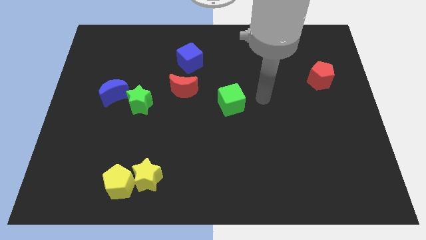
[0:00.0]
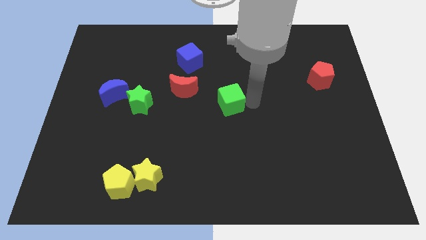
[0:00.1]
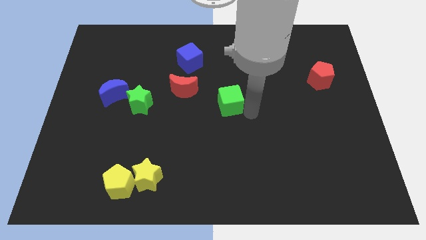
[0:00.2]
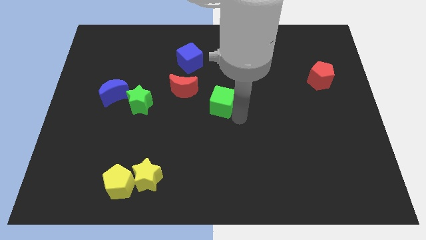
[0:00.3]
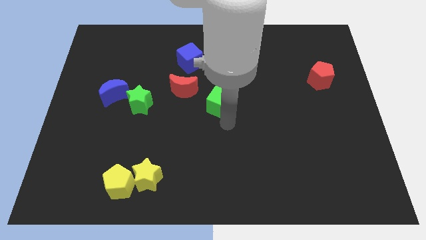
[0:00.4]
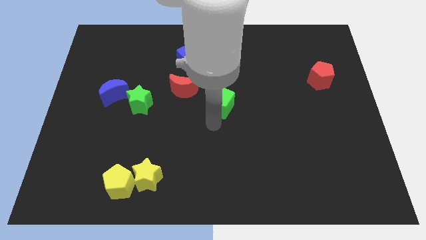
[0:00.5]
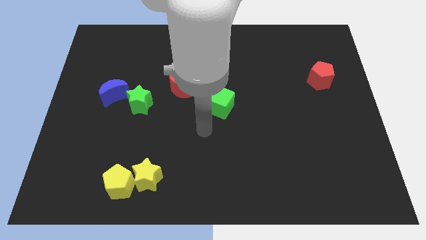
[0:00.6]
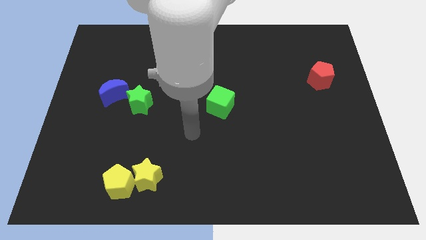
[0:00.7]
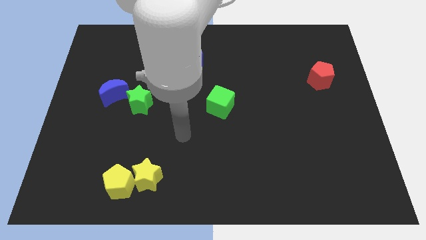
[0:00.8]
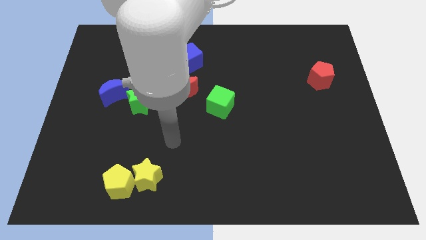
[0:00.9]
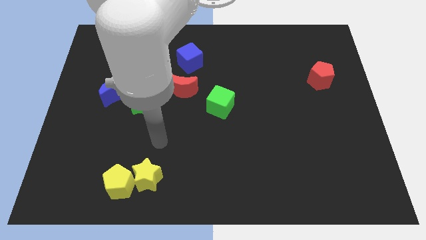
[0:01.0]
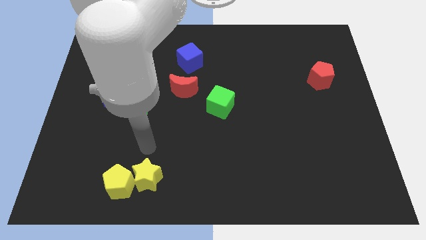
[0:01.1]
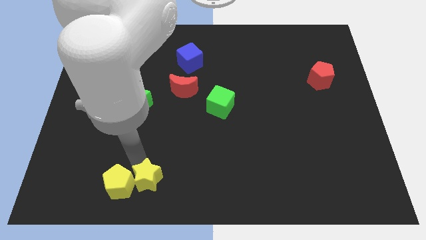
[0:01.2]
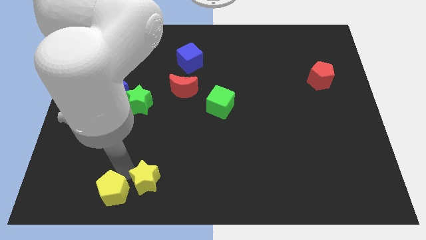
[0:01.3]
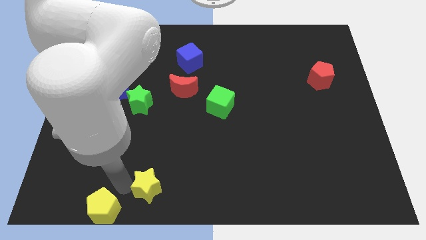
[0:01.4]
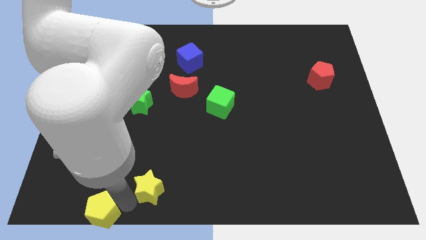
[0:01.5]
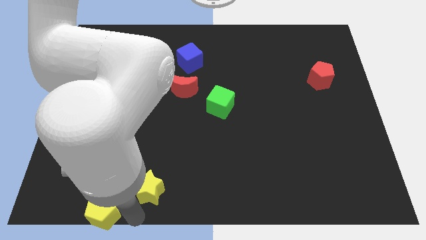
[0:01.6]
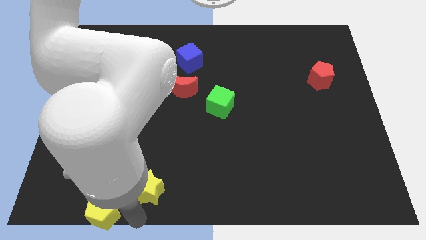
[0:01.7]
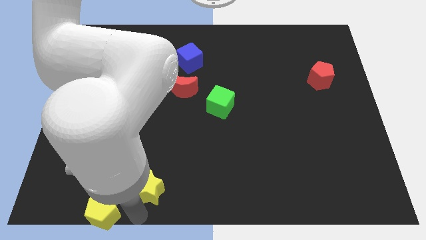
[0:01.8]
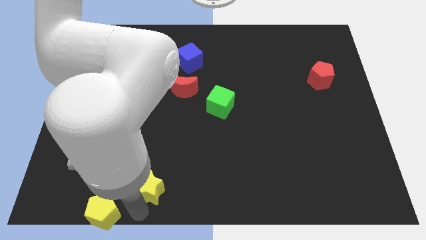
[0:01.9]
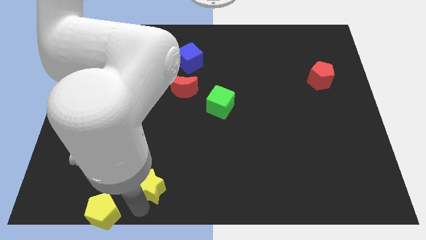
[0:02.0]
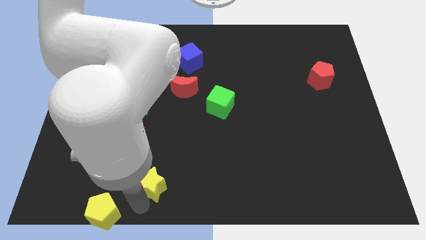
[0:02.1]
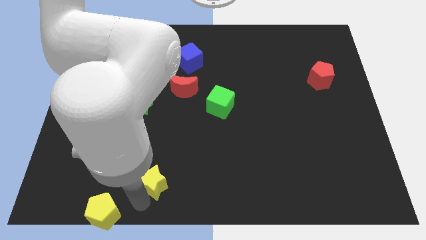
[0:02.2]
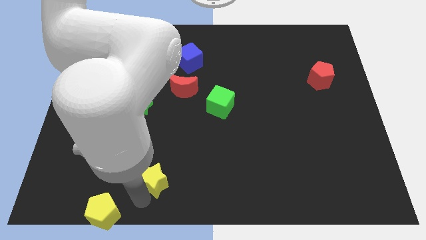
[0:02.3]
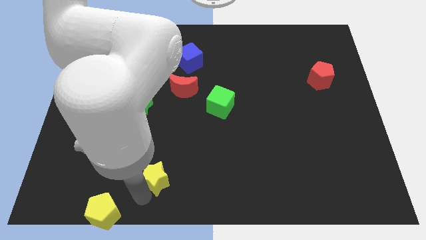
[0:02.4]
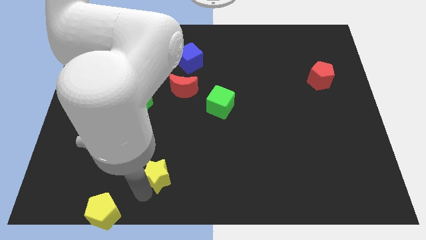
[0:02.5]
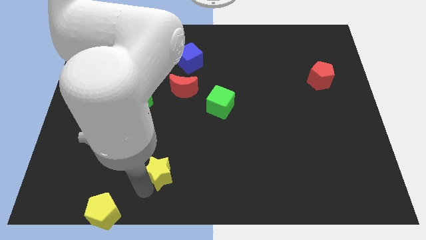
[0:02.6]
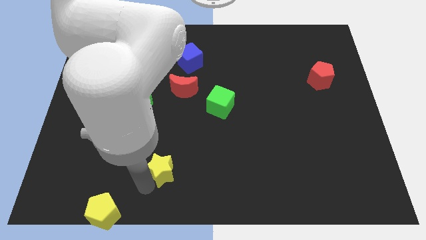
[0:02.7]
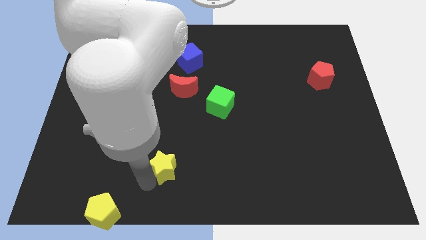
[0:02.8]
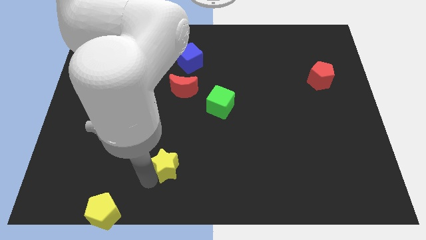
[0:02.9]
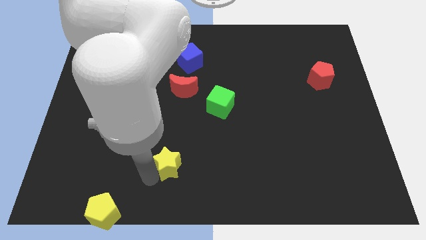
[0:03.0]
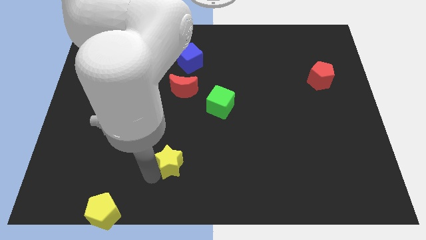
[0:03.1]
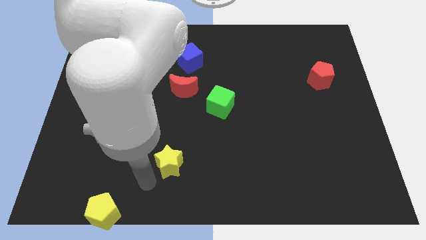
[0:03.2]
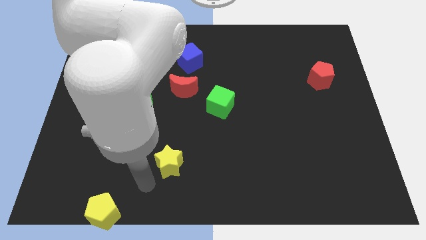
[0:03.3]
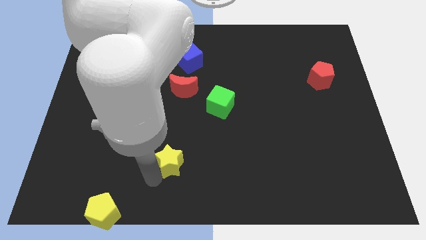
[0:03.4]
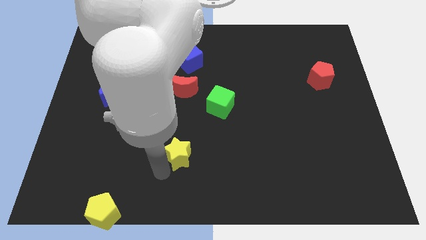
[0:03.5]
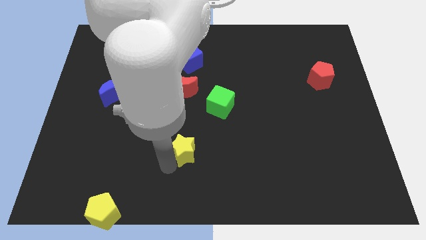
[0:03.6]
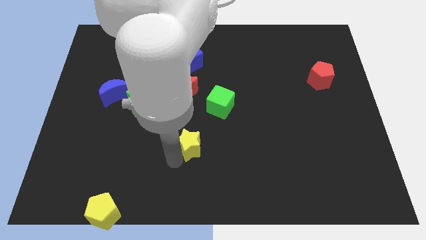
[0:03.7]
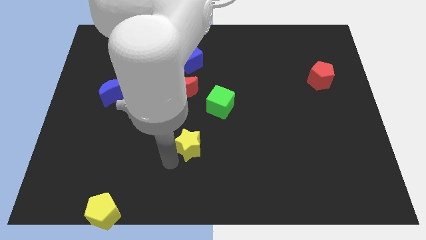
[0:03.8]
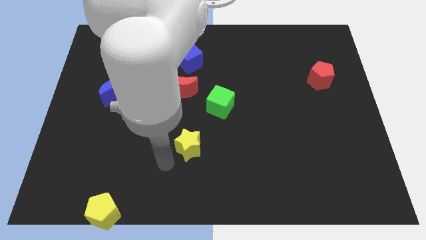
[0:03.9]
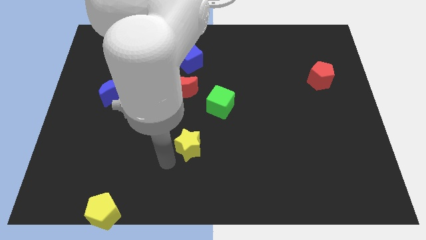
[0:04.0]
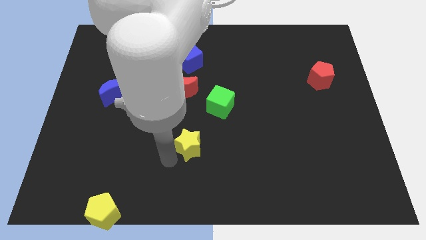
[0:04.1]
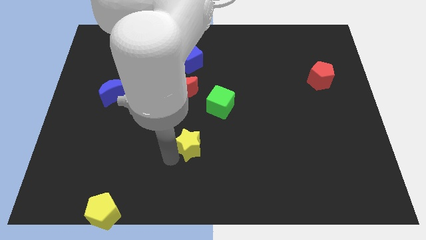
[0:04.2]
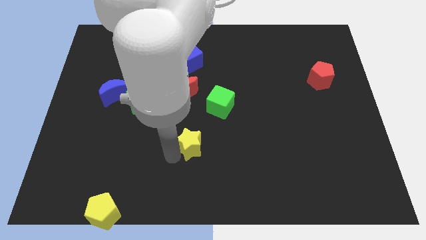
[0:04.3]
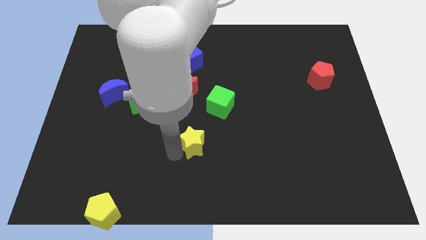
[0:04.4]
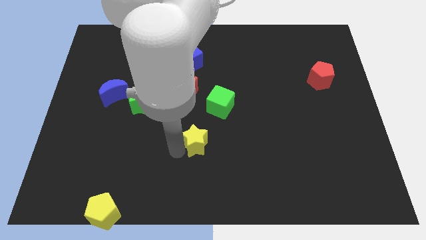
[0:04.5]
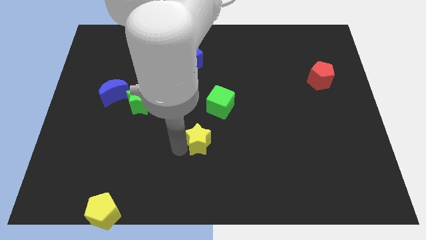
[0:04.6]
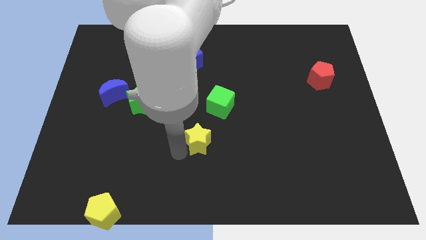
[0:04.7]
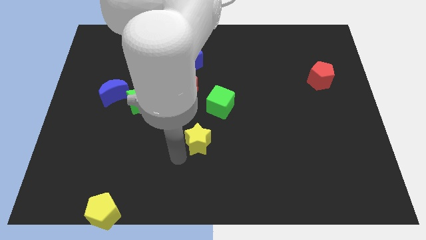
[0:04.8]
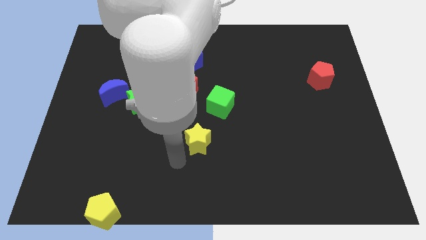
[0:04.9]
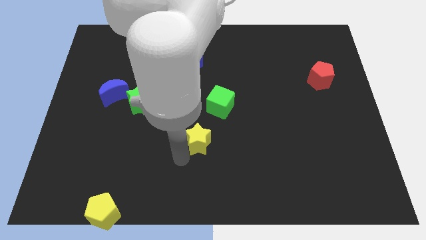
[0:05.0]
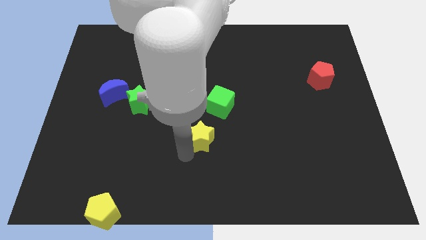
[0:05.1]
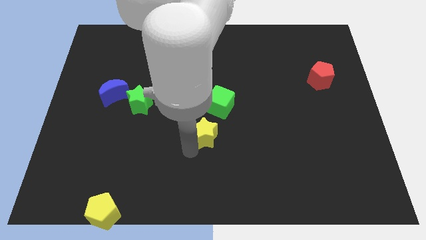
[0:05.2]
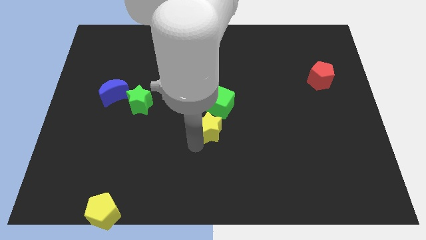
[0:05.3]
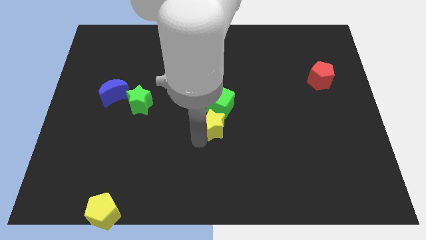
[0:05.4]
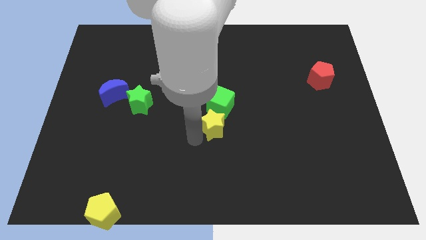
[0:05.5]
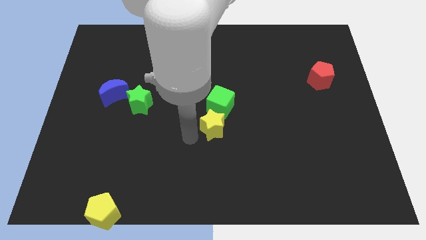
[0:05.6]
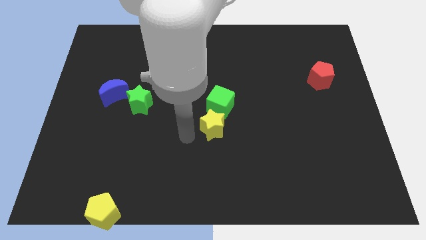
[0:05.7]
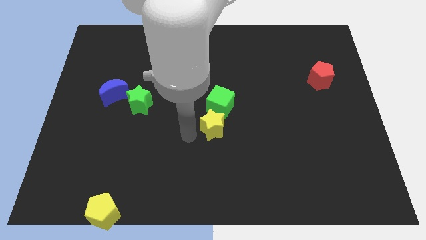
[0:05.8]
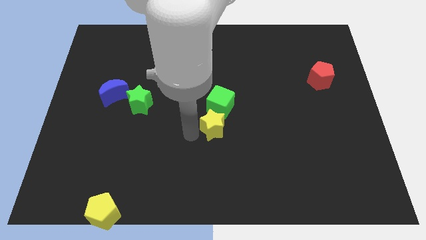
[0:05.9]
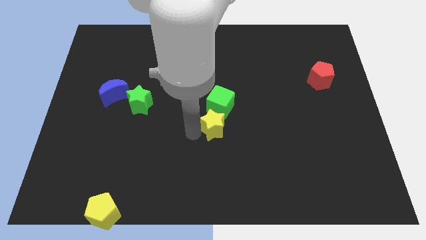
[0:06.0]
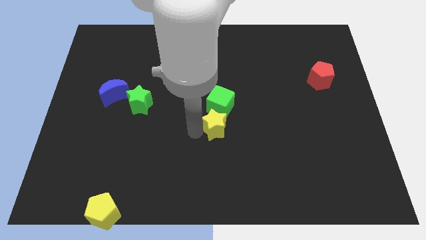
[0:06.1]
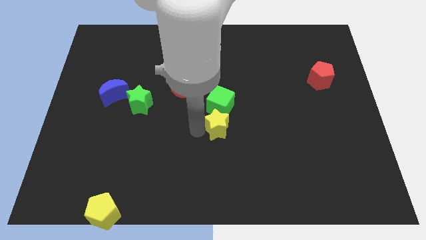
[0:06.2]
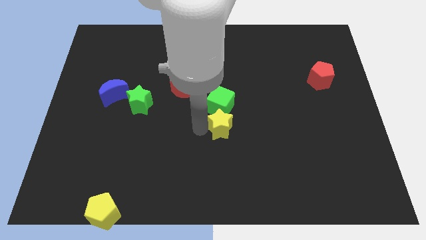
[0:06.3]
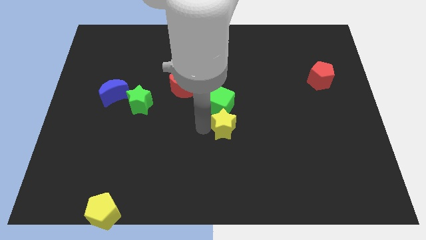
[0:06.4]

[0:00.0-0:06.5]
slide the yellow star upwards and to the right diagonally

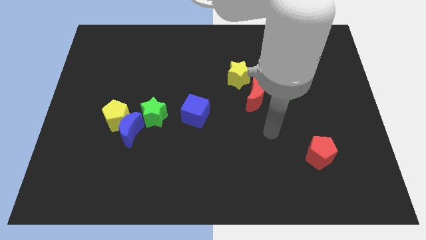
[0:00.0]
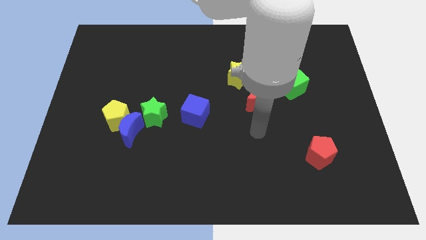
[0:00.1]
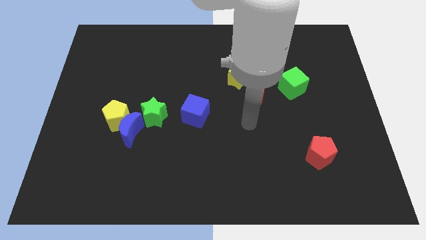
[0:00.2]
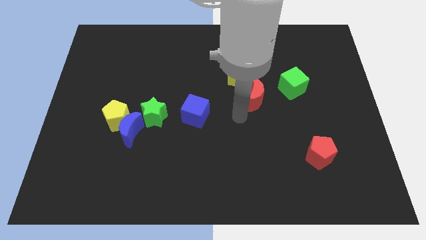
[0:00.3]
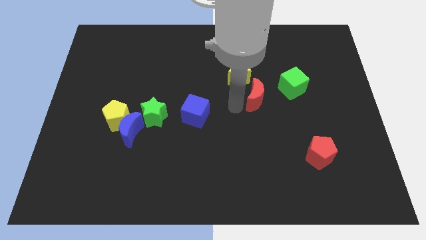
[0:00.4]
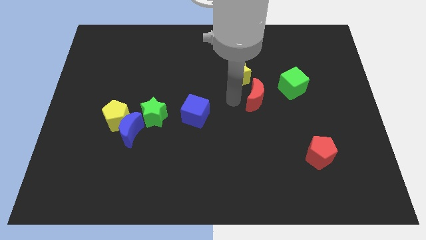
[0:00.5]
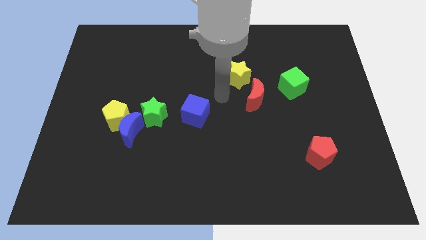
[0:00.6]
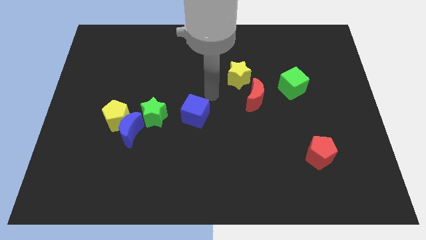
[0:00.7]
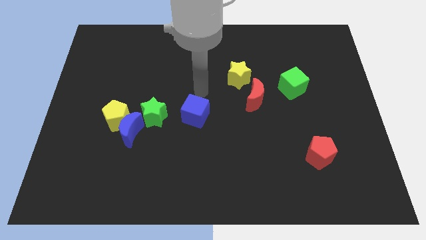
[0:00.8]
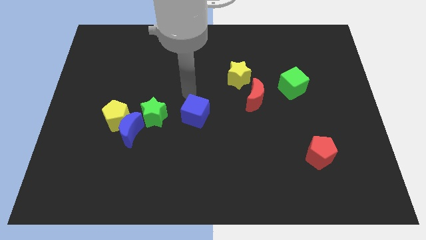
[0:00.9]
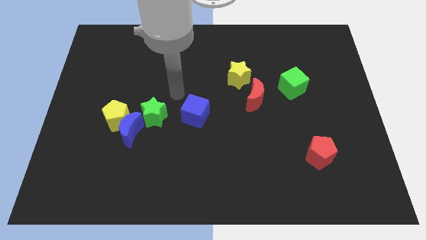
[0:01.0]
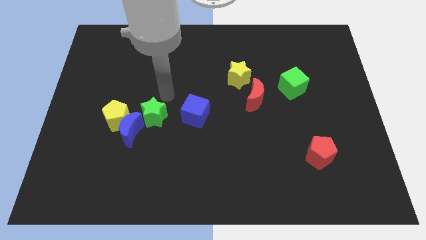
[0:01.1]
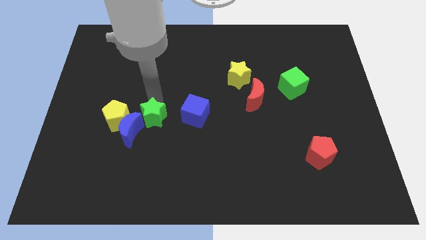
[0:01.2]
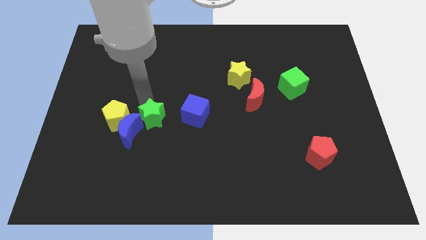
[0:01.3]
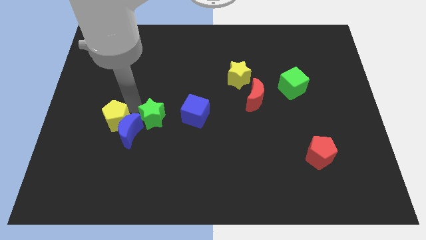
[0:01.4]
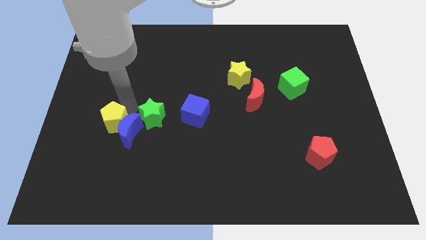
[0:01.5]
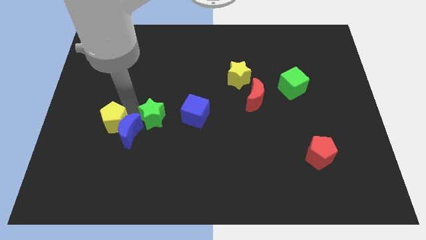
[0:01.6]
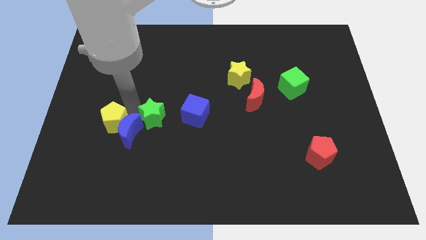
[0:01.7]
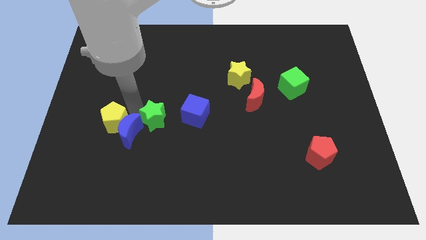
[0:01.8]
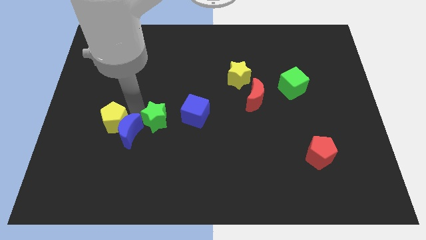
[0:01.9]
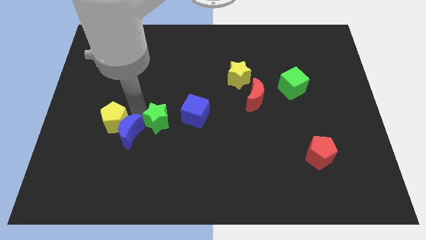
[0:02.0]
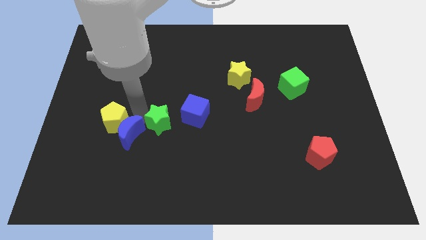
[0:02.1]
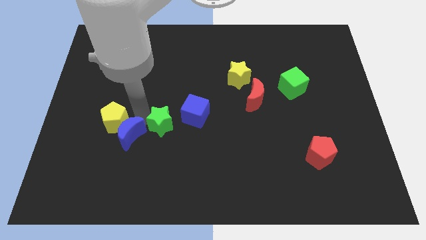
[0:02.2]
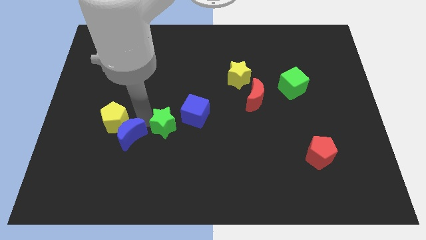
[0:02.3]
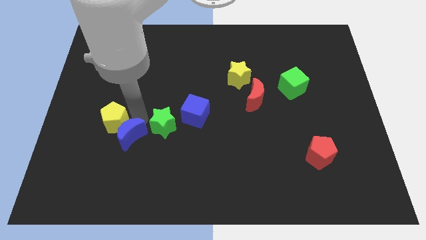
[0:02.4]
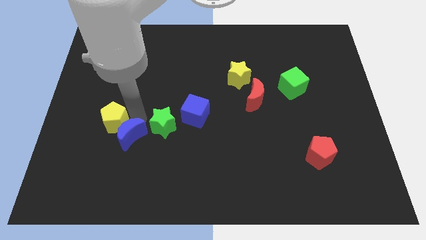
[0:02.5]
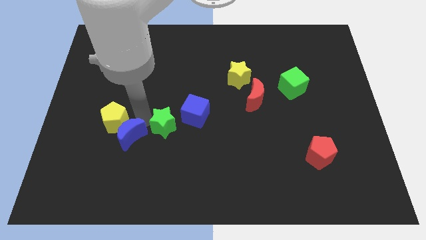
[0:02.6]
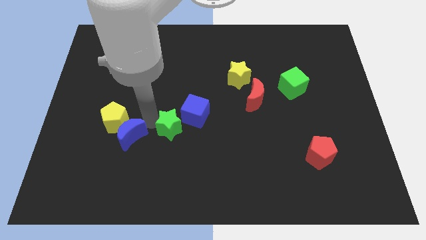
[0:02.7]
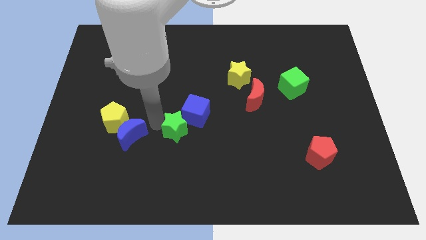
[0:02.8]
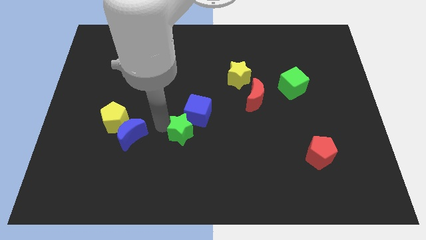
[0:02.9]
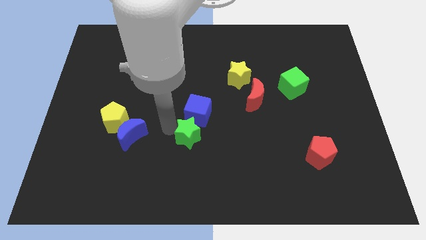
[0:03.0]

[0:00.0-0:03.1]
push the green star to the right a bit
